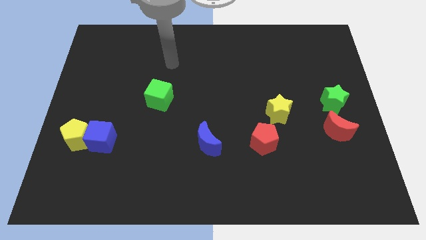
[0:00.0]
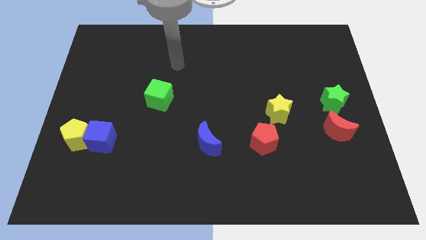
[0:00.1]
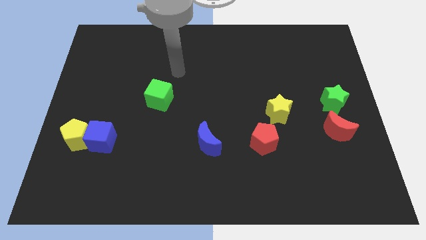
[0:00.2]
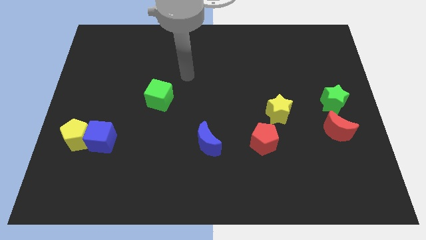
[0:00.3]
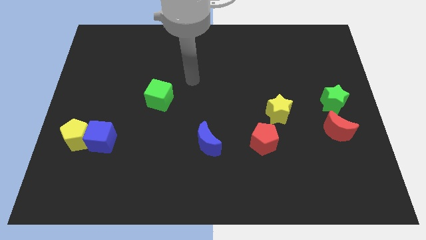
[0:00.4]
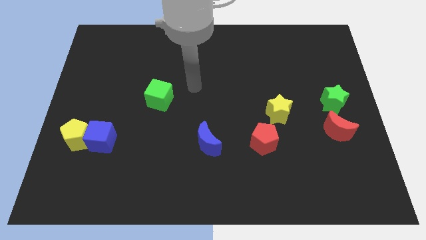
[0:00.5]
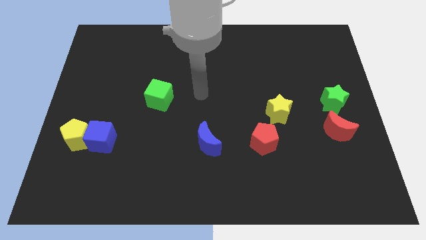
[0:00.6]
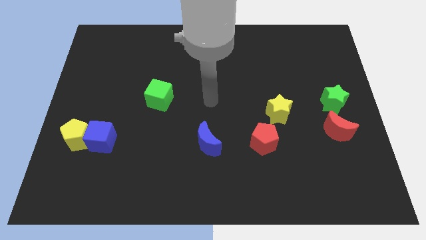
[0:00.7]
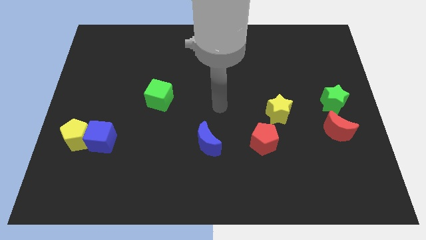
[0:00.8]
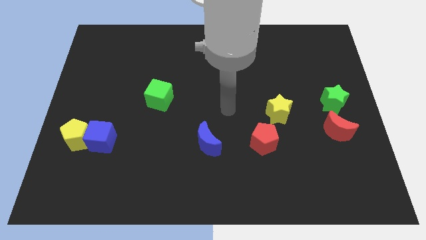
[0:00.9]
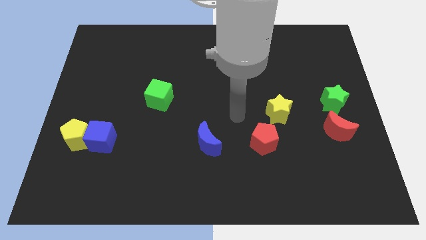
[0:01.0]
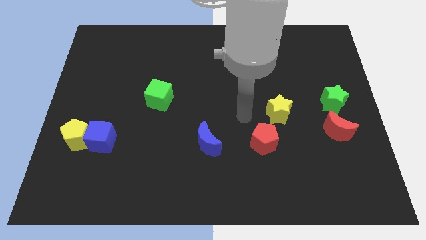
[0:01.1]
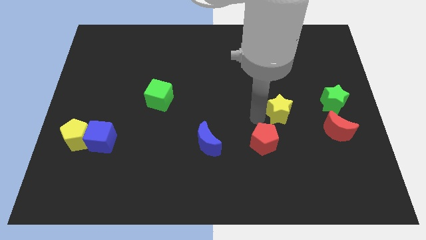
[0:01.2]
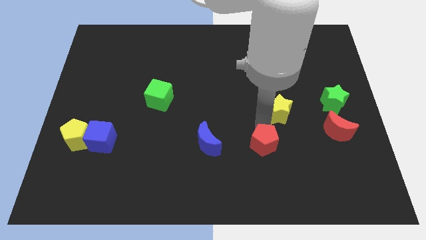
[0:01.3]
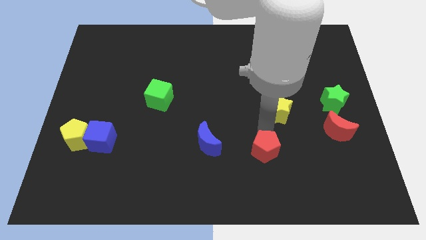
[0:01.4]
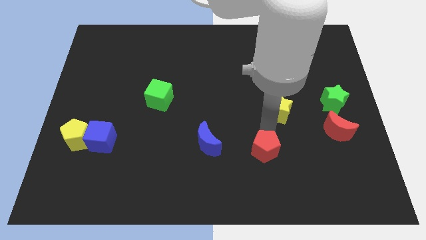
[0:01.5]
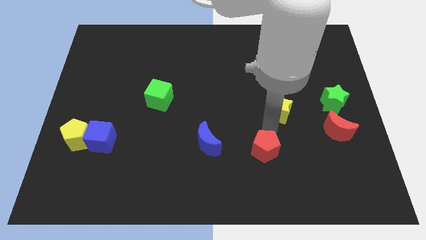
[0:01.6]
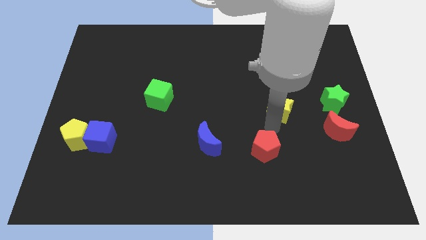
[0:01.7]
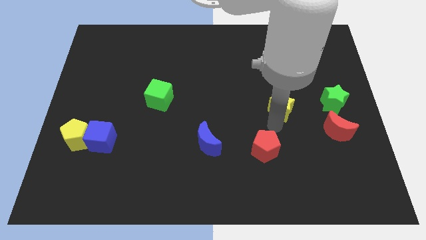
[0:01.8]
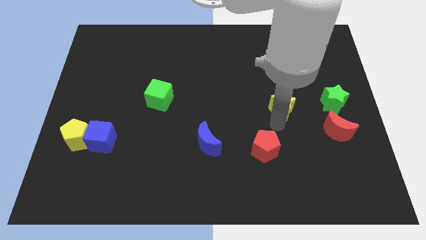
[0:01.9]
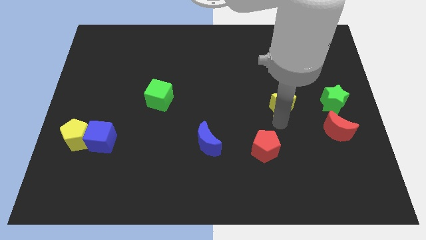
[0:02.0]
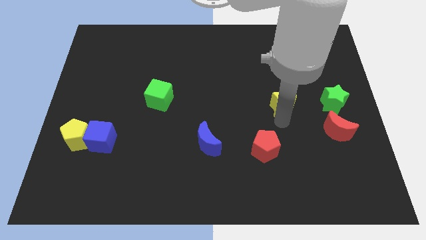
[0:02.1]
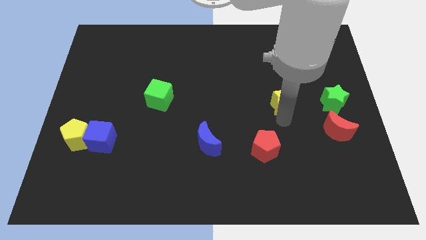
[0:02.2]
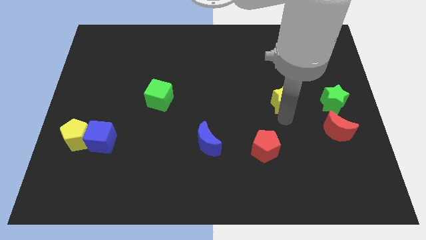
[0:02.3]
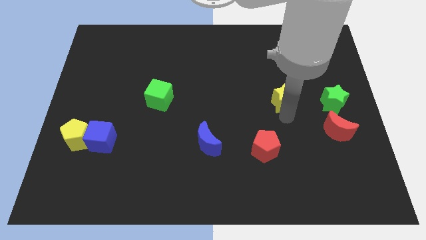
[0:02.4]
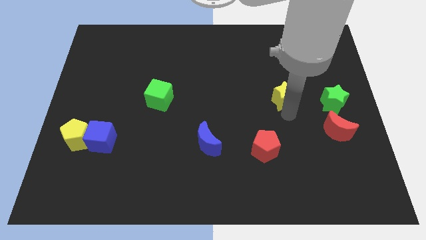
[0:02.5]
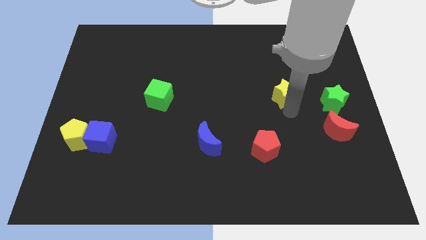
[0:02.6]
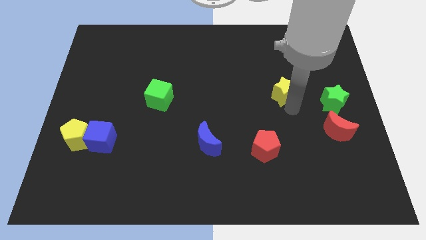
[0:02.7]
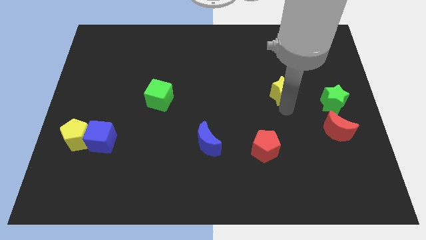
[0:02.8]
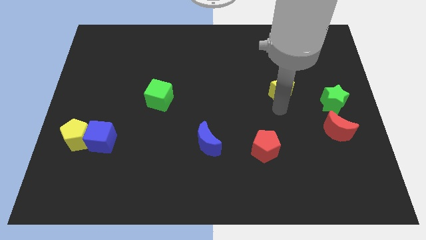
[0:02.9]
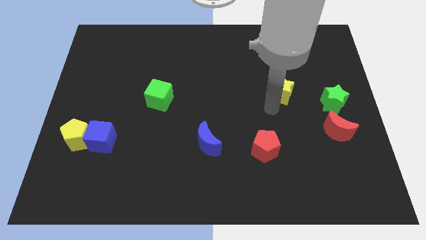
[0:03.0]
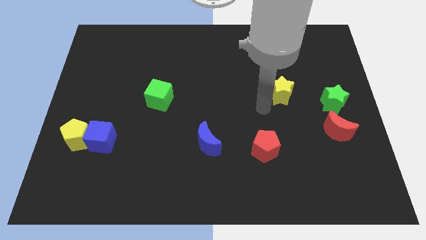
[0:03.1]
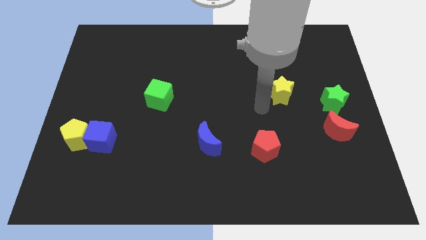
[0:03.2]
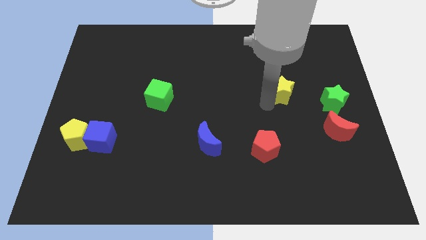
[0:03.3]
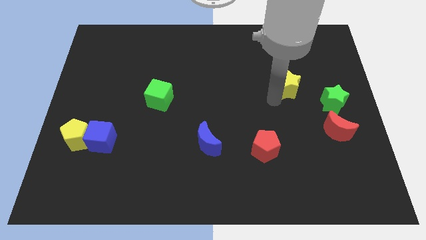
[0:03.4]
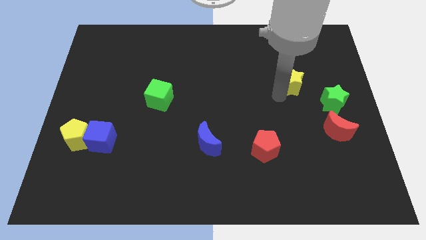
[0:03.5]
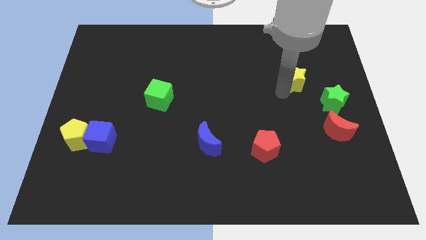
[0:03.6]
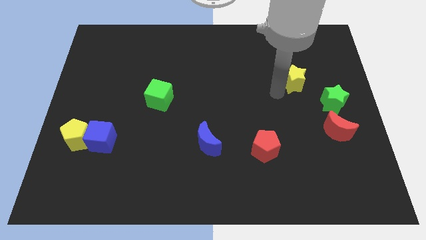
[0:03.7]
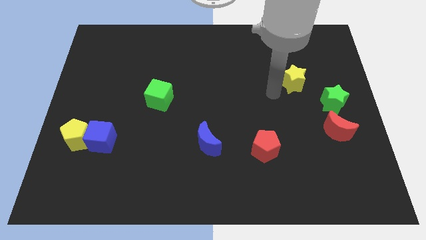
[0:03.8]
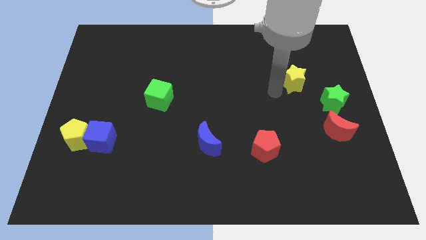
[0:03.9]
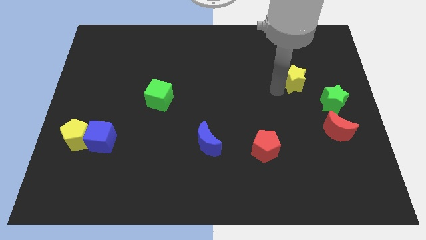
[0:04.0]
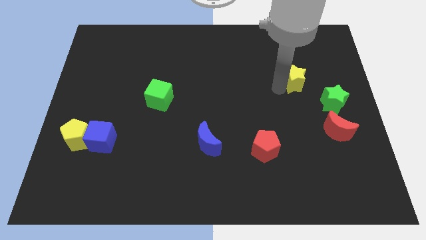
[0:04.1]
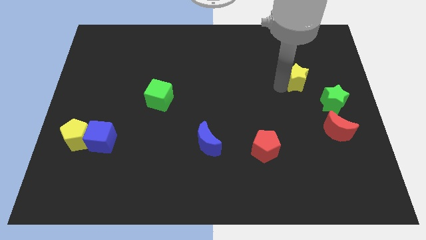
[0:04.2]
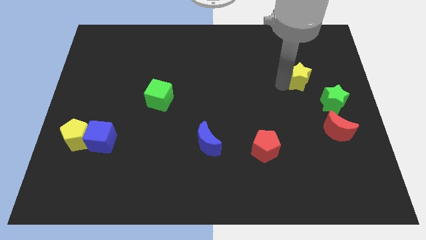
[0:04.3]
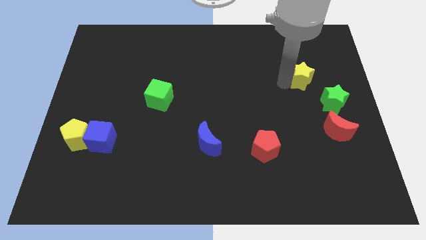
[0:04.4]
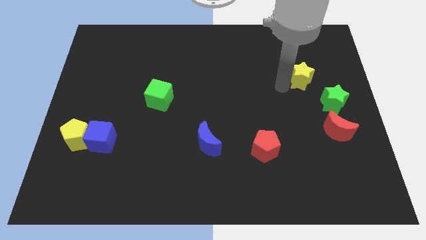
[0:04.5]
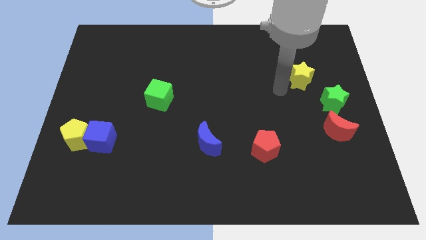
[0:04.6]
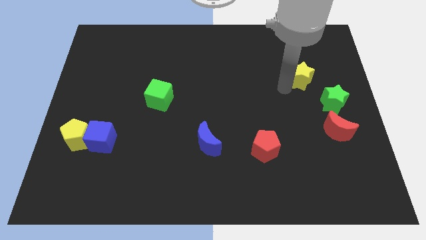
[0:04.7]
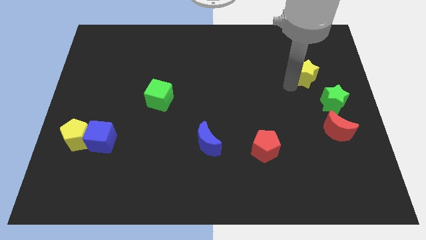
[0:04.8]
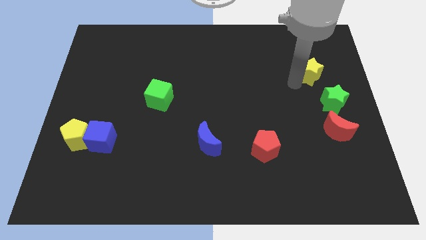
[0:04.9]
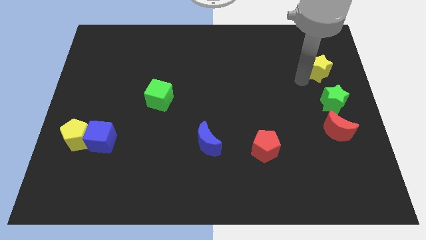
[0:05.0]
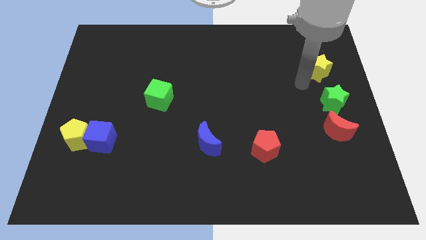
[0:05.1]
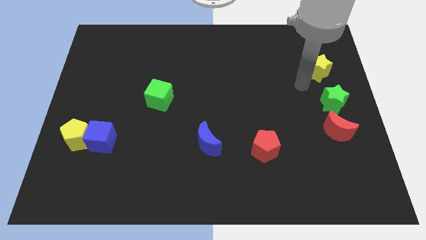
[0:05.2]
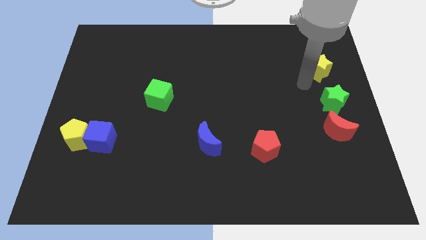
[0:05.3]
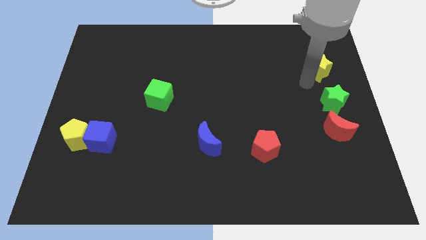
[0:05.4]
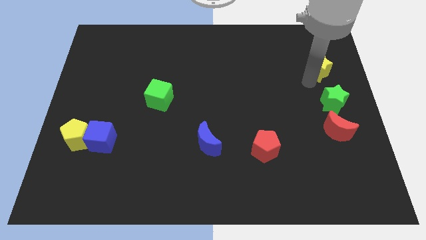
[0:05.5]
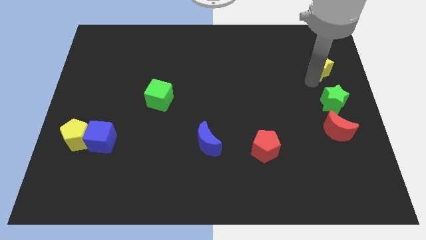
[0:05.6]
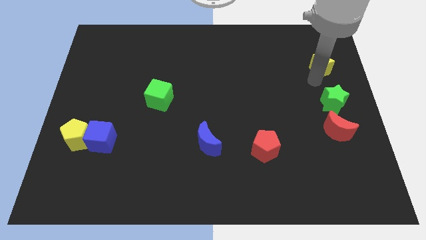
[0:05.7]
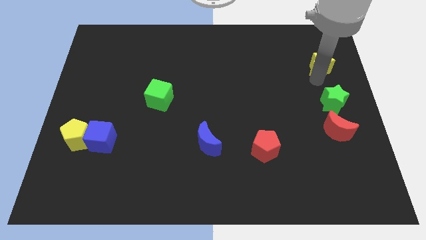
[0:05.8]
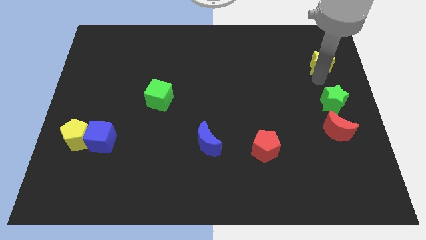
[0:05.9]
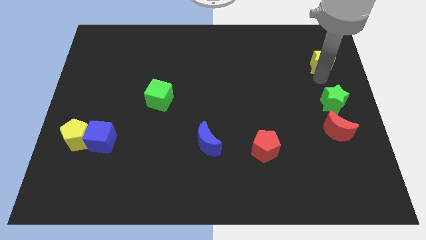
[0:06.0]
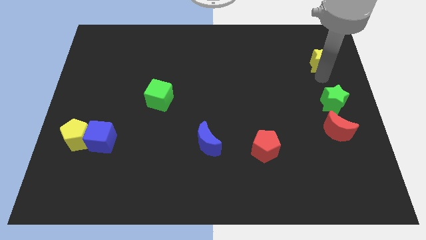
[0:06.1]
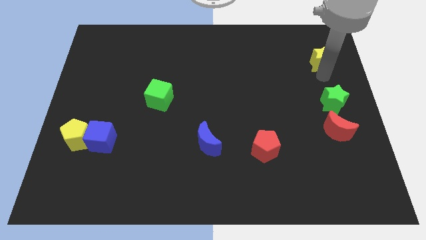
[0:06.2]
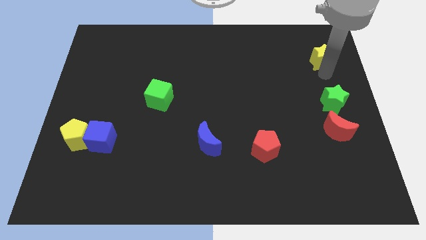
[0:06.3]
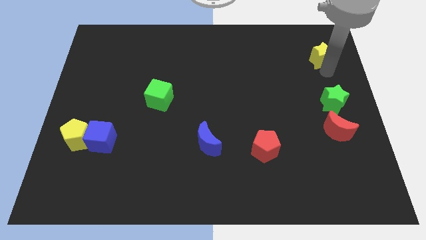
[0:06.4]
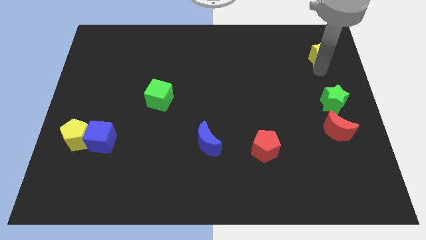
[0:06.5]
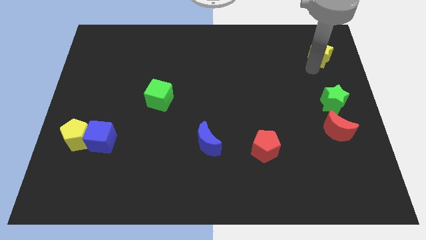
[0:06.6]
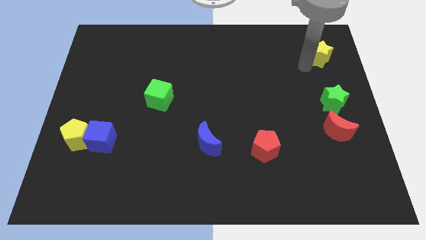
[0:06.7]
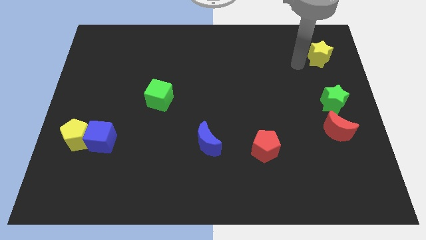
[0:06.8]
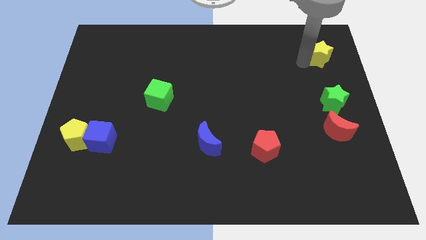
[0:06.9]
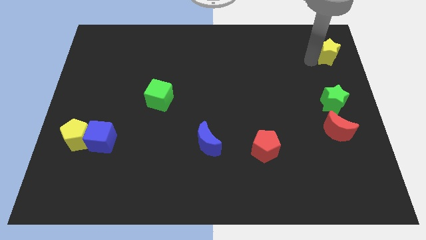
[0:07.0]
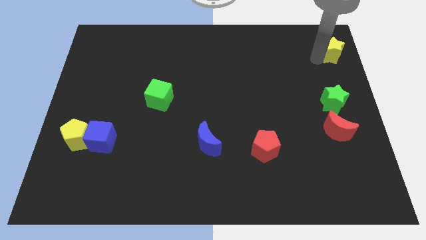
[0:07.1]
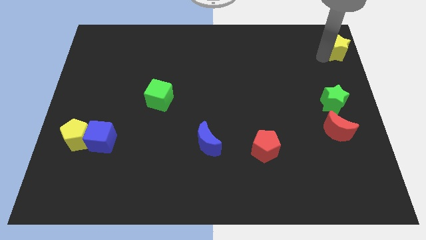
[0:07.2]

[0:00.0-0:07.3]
push the yellow star to the upper right corner

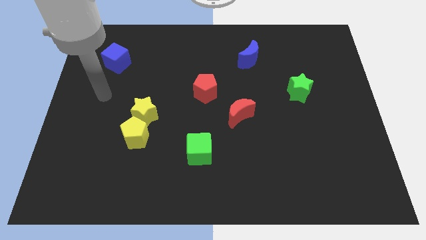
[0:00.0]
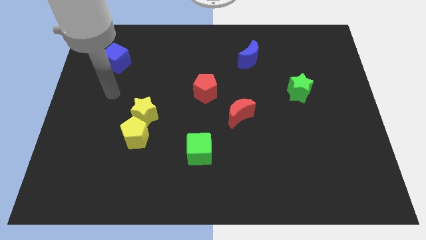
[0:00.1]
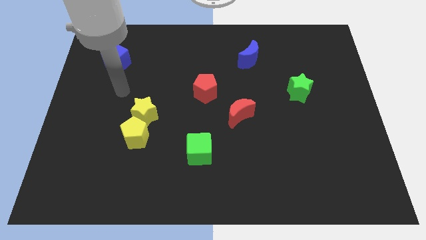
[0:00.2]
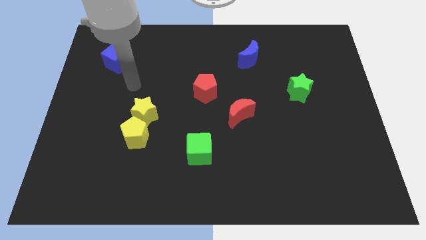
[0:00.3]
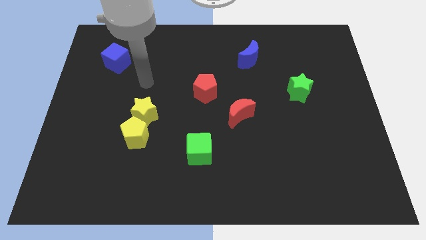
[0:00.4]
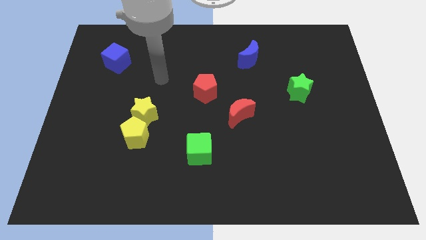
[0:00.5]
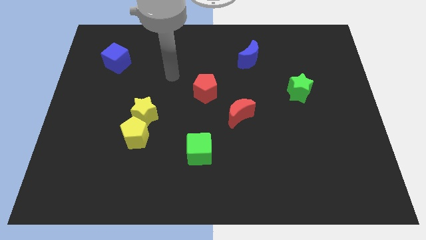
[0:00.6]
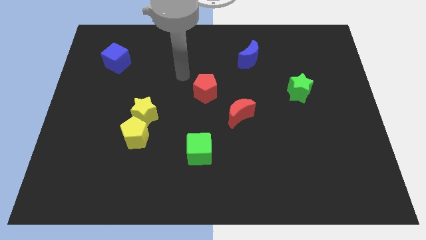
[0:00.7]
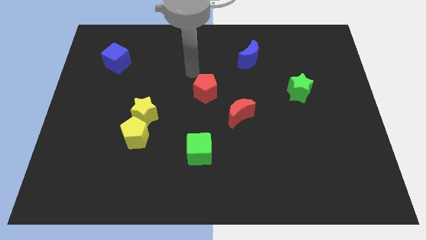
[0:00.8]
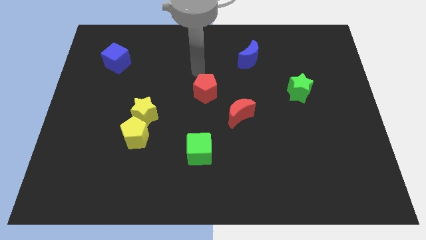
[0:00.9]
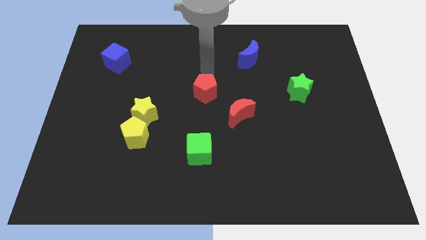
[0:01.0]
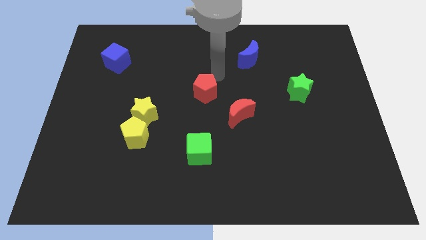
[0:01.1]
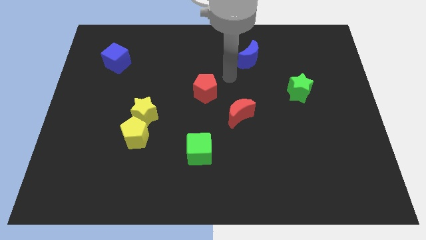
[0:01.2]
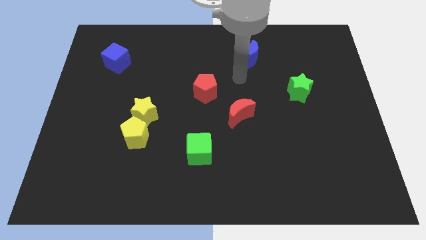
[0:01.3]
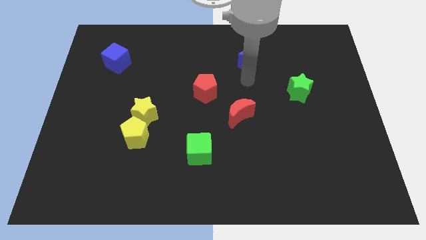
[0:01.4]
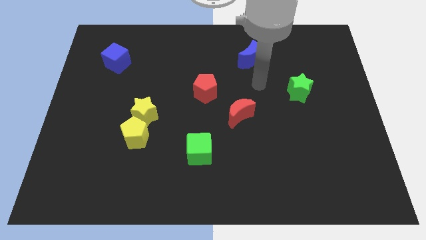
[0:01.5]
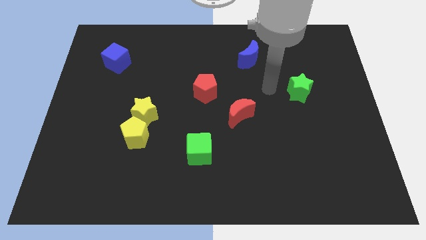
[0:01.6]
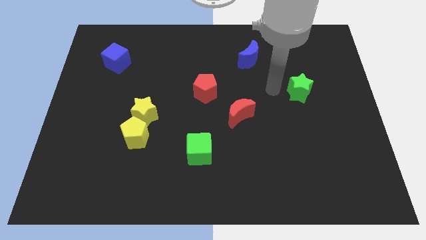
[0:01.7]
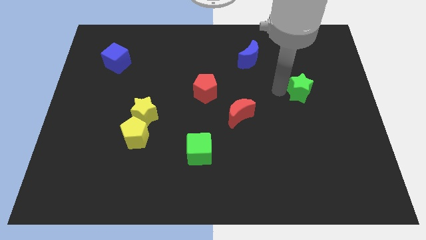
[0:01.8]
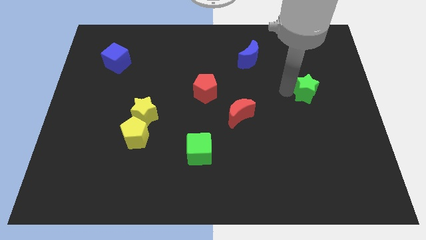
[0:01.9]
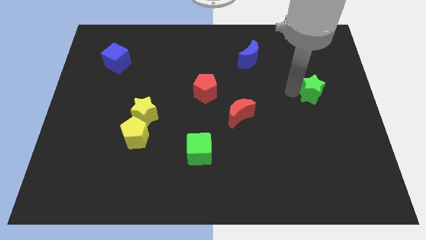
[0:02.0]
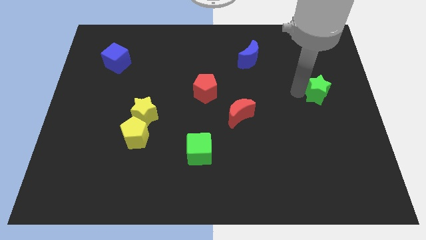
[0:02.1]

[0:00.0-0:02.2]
move the green star to the center right
